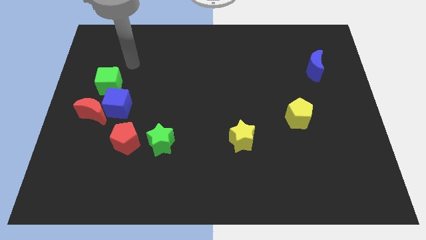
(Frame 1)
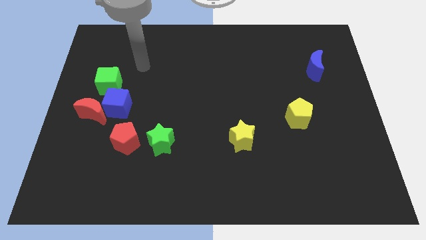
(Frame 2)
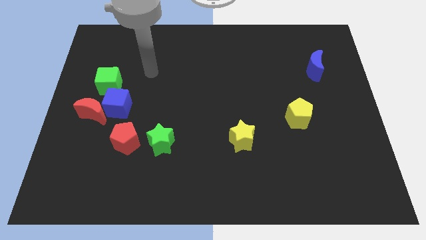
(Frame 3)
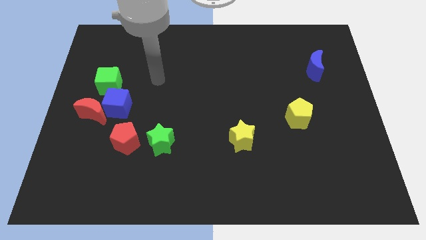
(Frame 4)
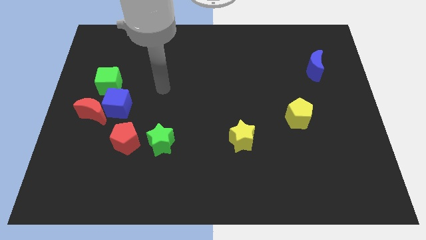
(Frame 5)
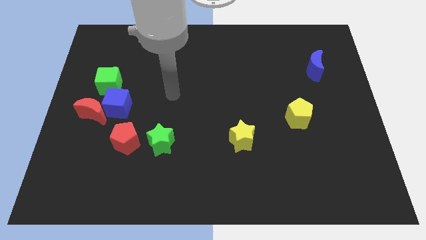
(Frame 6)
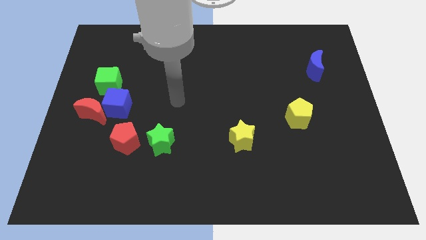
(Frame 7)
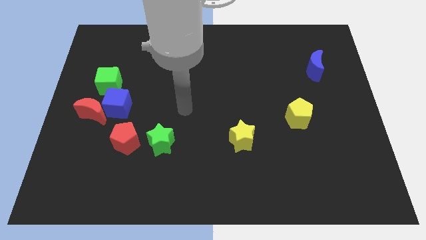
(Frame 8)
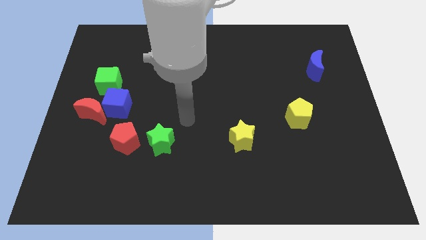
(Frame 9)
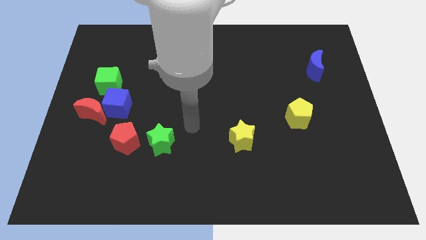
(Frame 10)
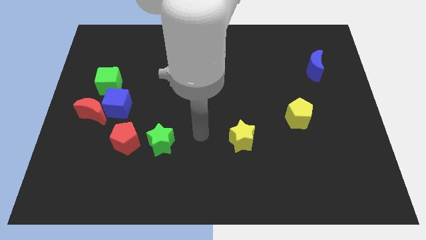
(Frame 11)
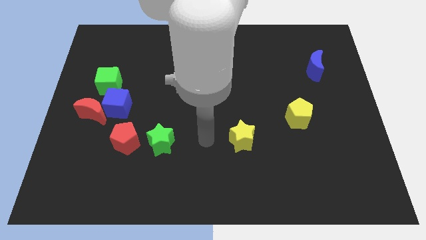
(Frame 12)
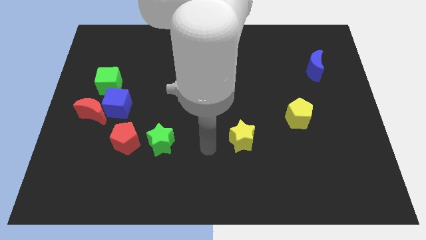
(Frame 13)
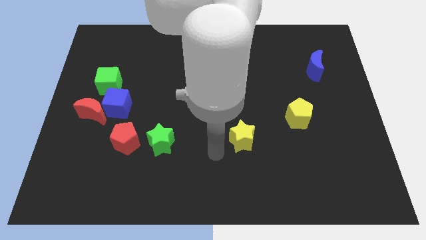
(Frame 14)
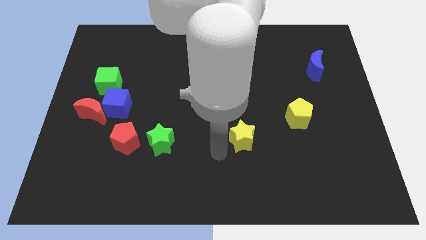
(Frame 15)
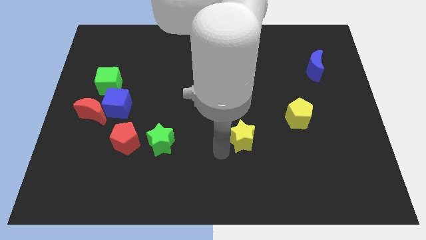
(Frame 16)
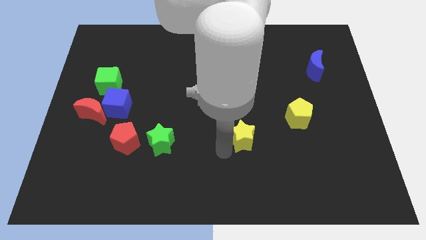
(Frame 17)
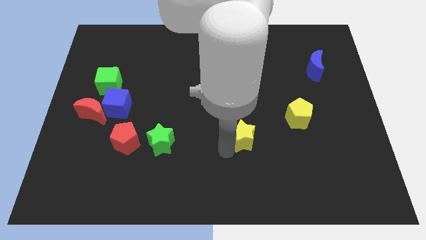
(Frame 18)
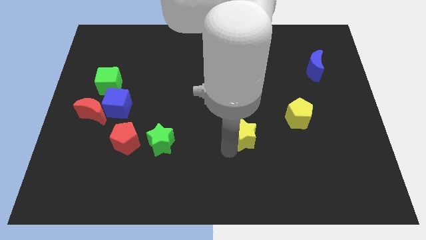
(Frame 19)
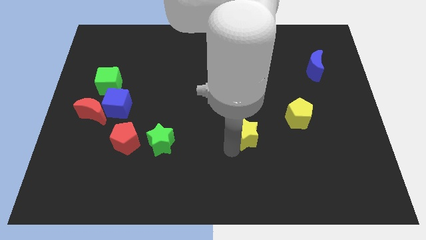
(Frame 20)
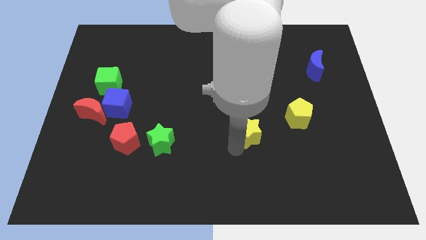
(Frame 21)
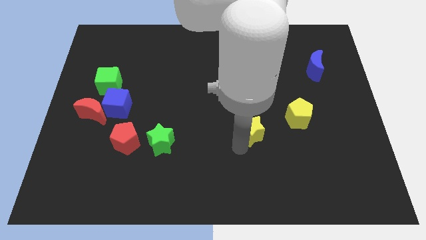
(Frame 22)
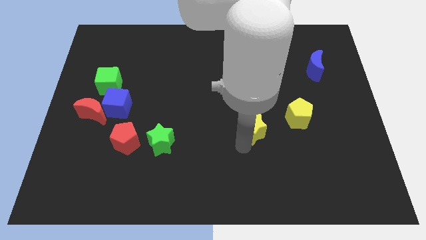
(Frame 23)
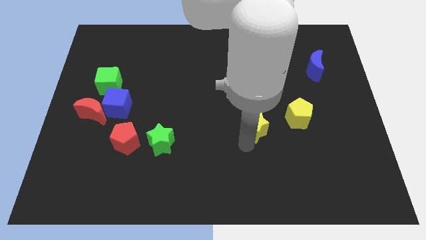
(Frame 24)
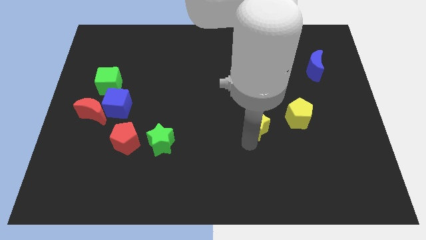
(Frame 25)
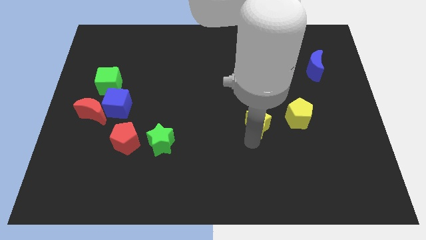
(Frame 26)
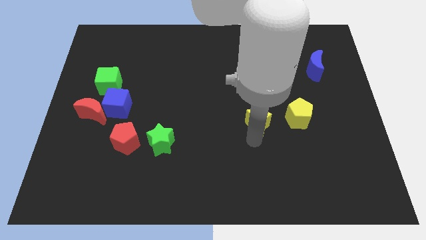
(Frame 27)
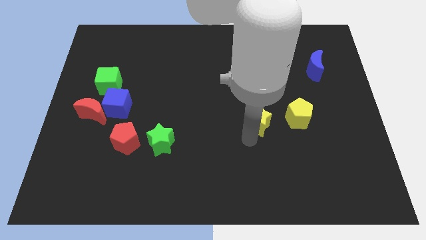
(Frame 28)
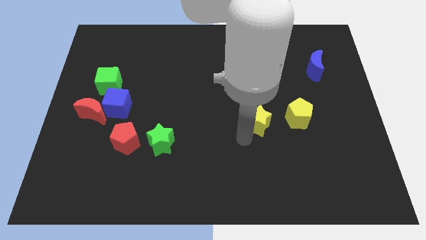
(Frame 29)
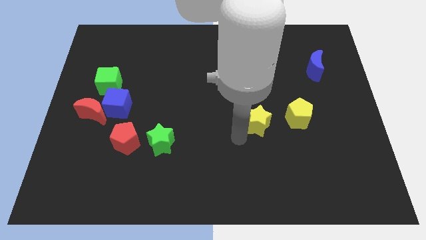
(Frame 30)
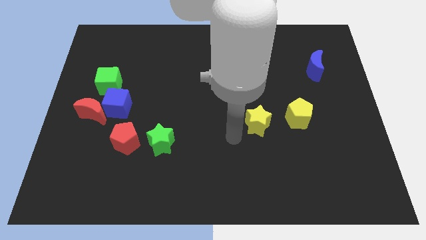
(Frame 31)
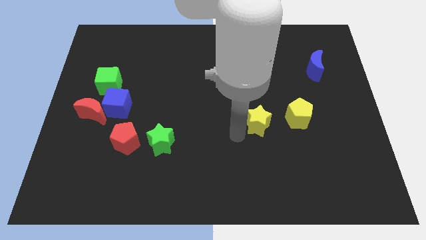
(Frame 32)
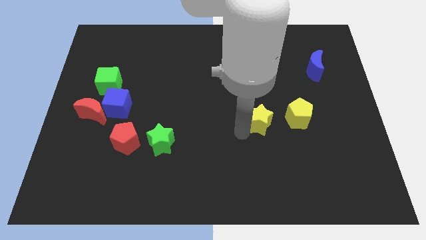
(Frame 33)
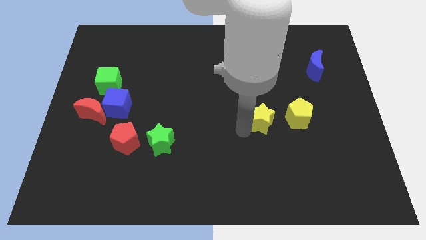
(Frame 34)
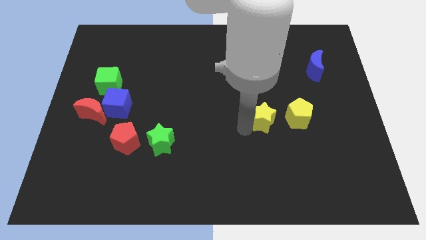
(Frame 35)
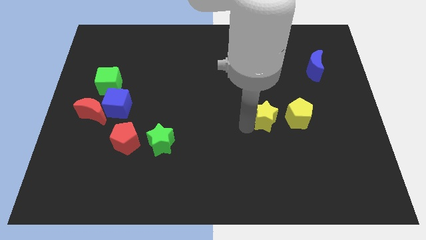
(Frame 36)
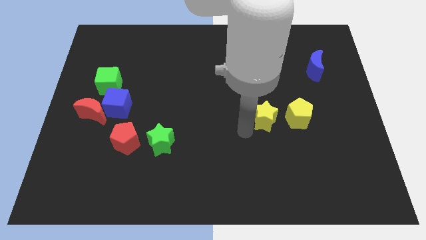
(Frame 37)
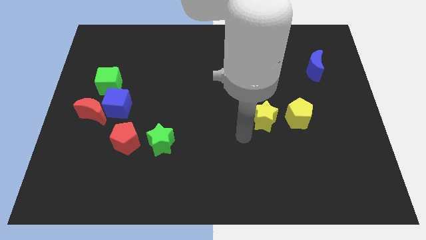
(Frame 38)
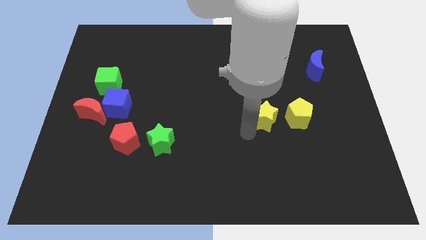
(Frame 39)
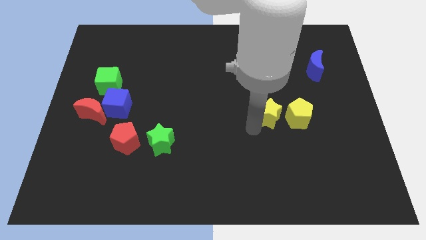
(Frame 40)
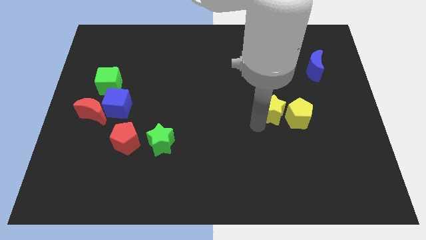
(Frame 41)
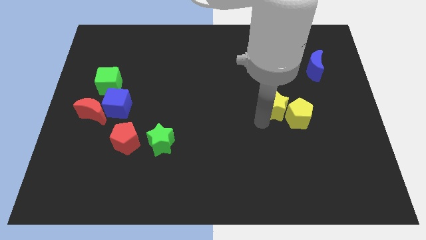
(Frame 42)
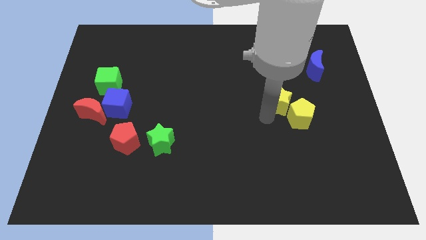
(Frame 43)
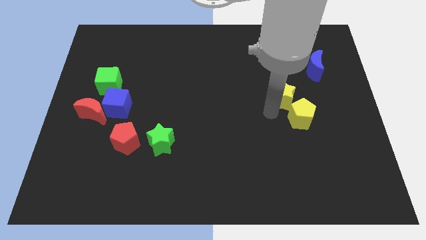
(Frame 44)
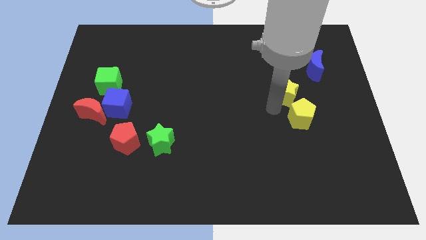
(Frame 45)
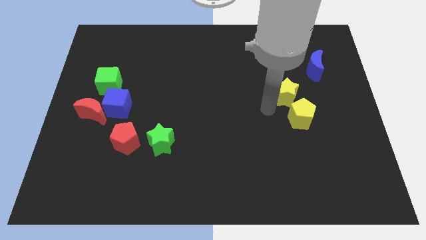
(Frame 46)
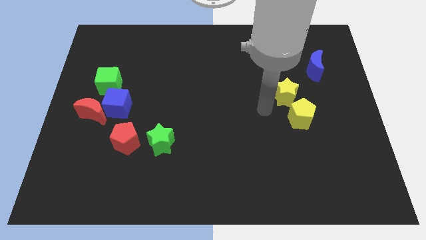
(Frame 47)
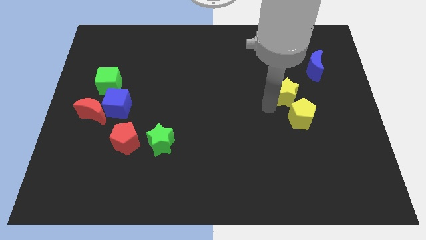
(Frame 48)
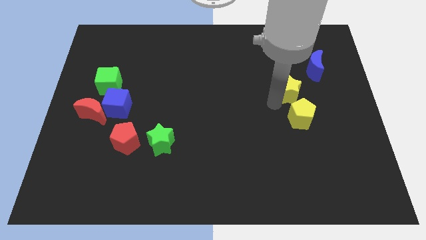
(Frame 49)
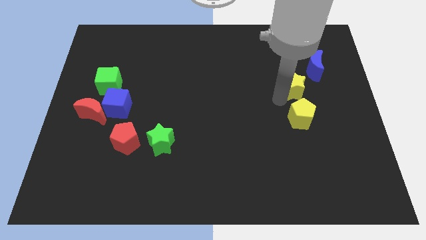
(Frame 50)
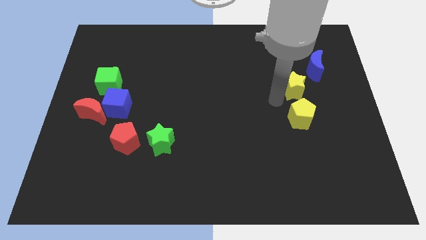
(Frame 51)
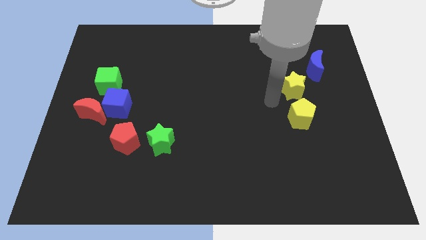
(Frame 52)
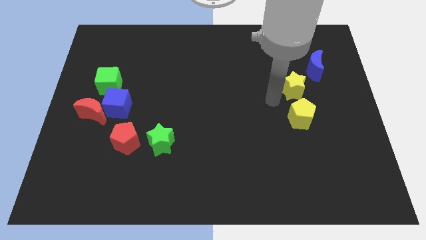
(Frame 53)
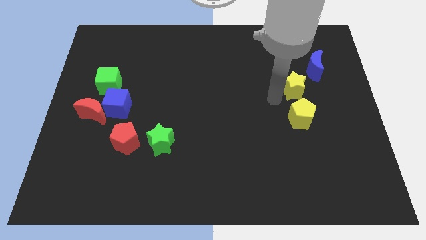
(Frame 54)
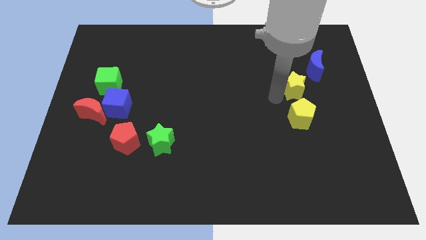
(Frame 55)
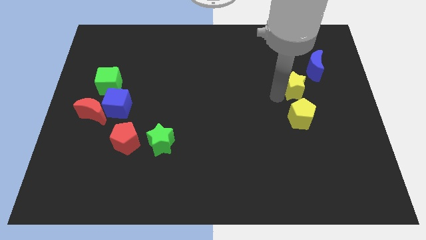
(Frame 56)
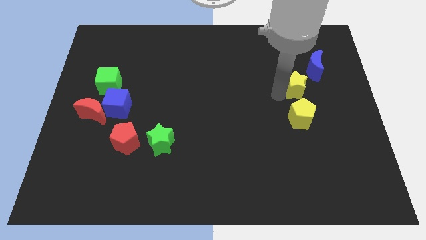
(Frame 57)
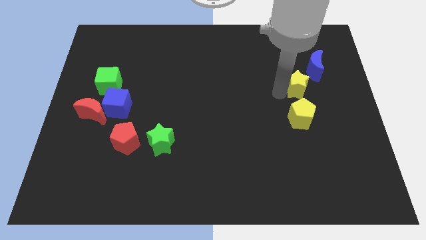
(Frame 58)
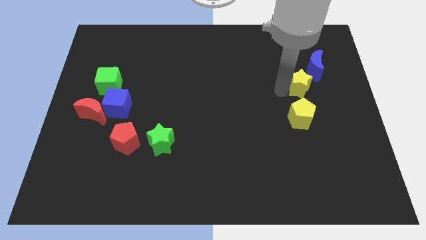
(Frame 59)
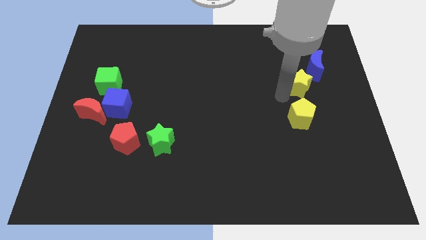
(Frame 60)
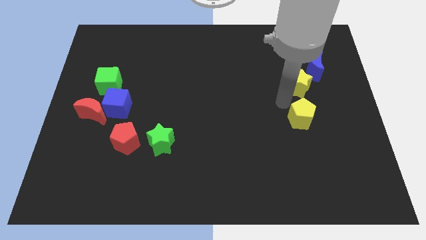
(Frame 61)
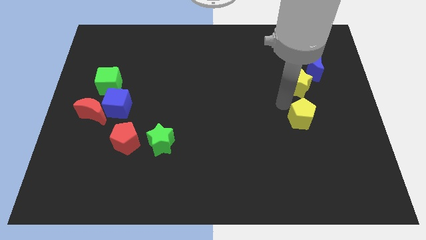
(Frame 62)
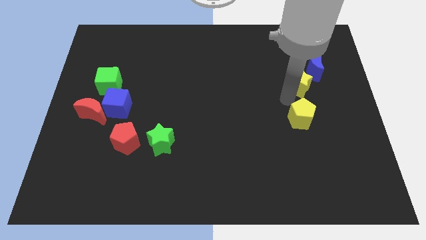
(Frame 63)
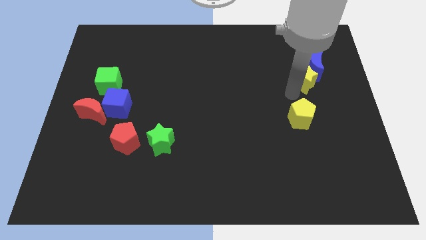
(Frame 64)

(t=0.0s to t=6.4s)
slide the yellow star to the blue moon

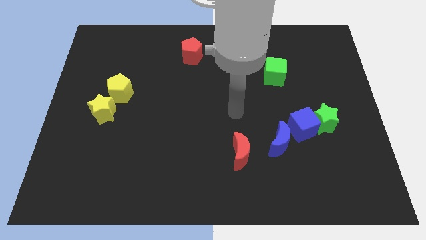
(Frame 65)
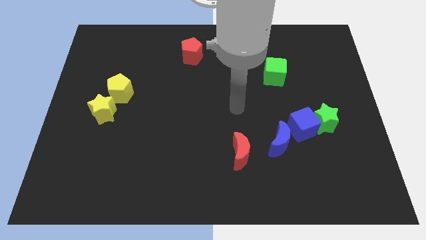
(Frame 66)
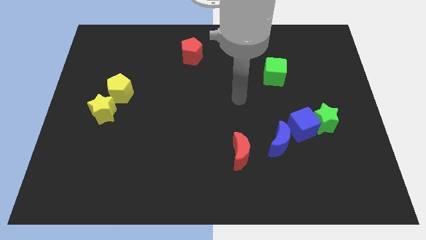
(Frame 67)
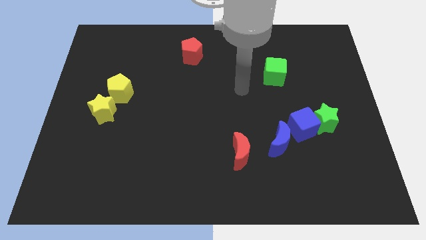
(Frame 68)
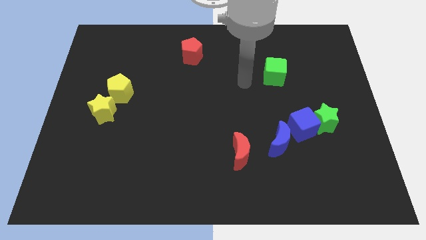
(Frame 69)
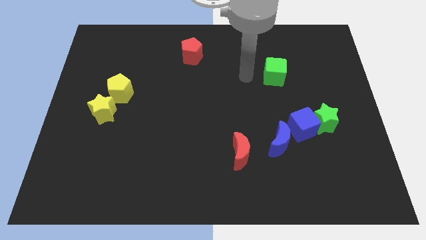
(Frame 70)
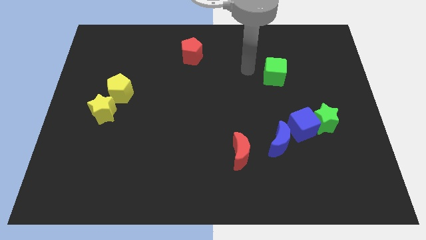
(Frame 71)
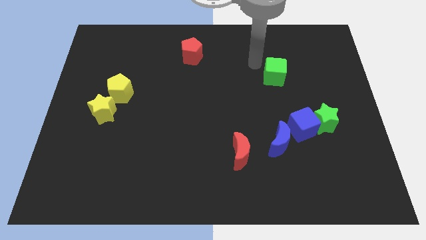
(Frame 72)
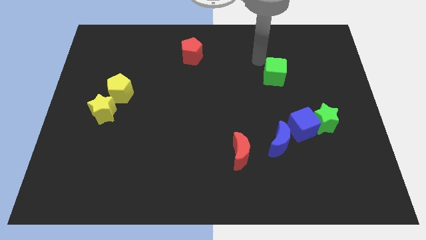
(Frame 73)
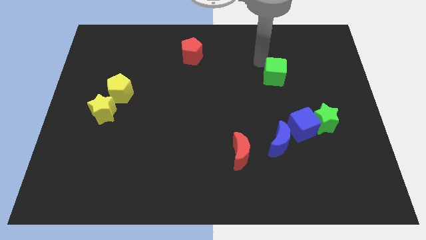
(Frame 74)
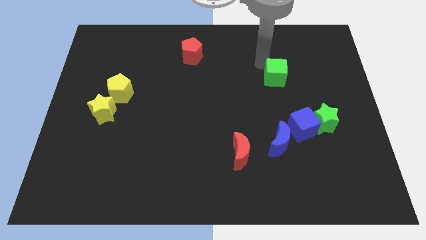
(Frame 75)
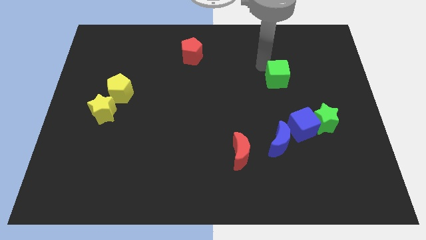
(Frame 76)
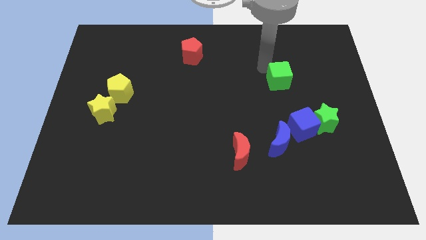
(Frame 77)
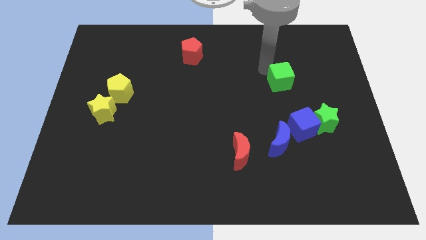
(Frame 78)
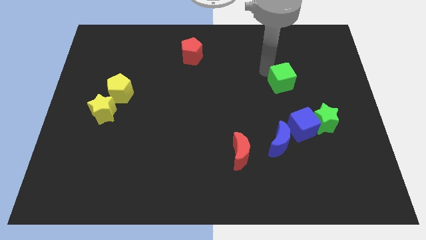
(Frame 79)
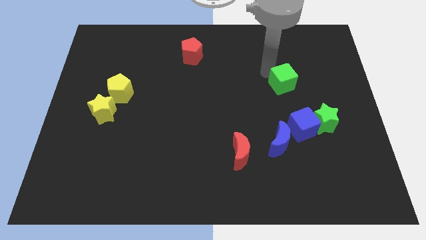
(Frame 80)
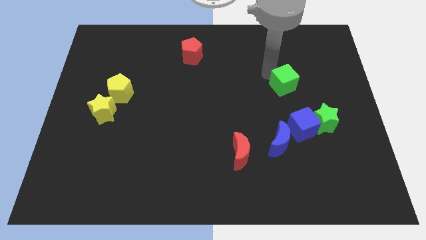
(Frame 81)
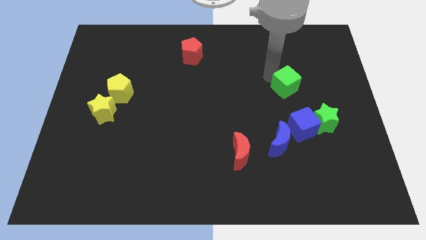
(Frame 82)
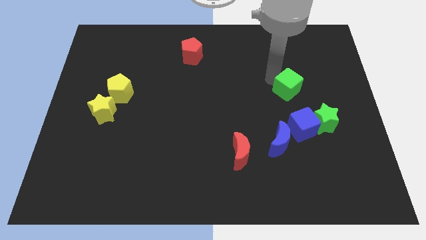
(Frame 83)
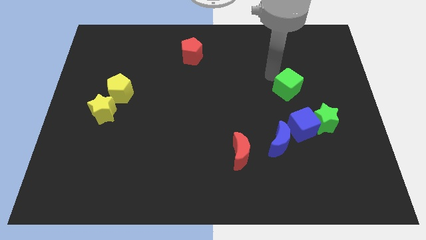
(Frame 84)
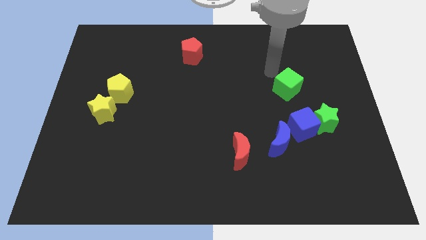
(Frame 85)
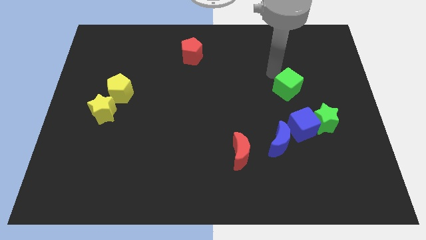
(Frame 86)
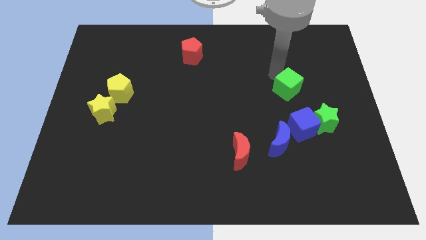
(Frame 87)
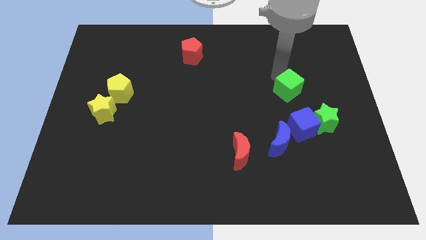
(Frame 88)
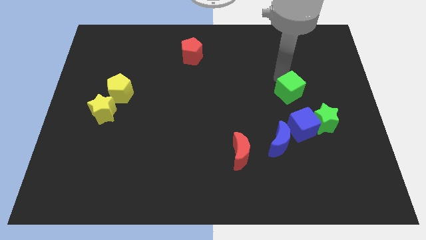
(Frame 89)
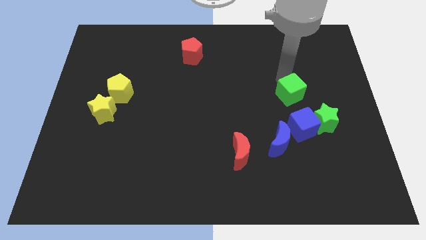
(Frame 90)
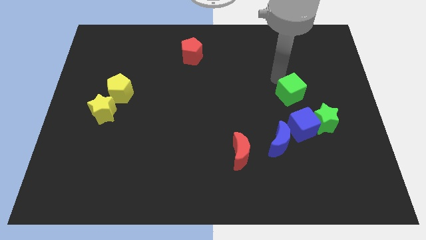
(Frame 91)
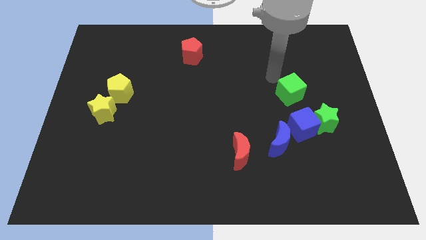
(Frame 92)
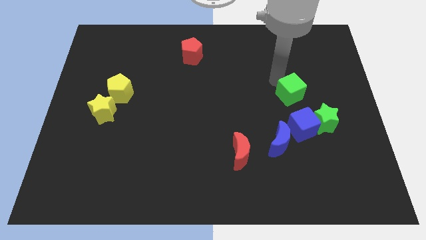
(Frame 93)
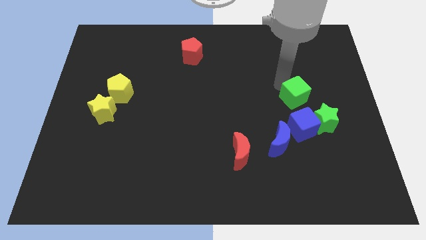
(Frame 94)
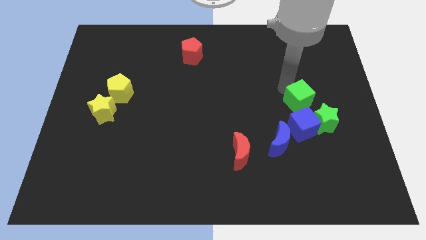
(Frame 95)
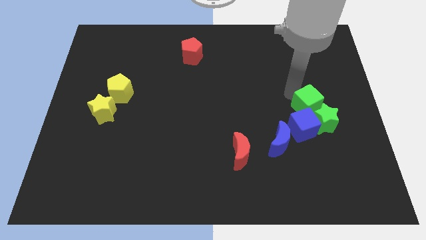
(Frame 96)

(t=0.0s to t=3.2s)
push the green cube towards the green star
